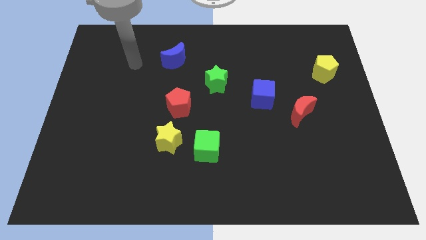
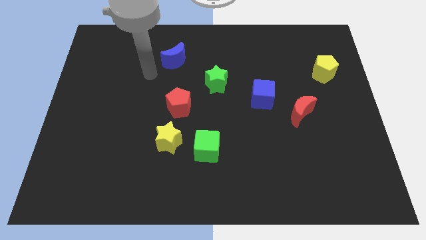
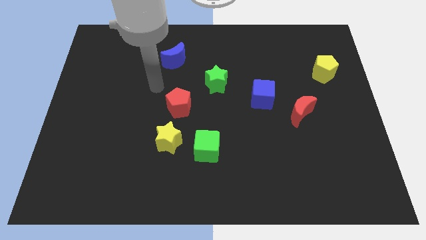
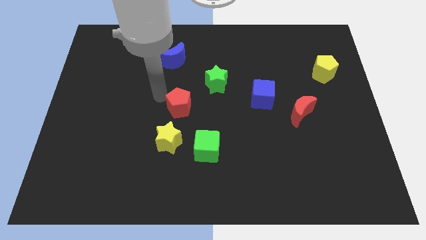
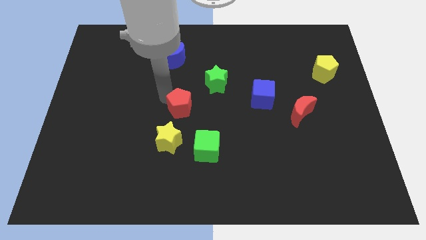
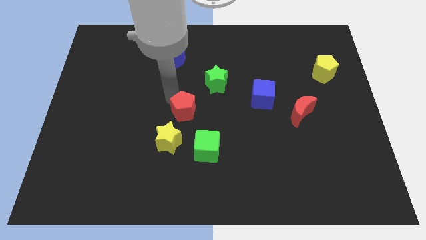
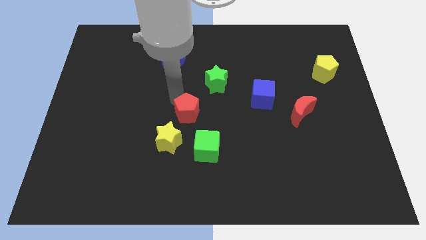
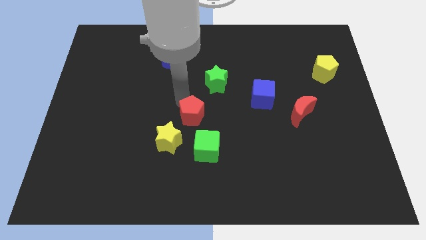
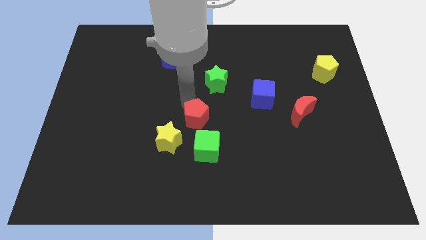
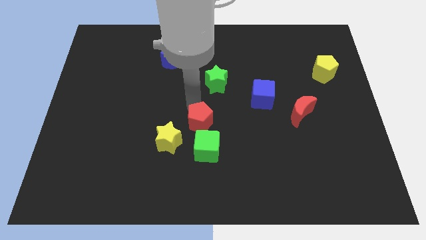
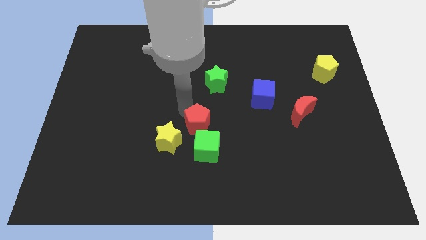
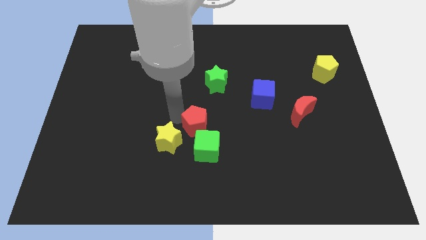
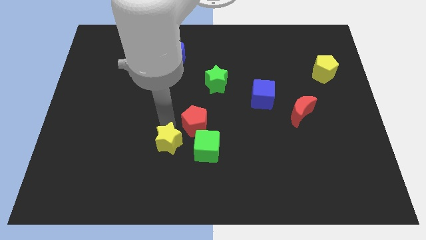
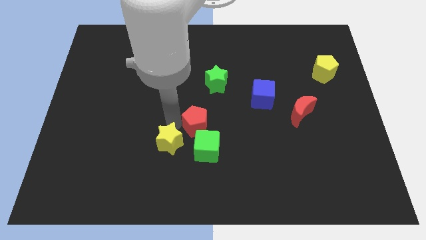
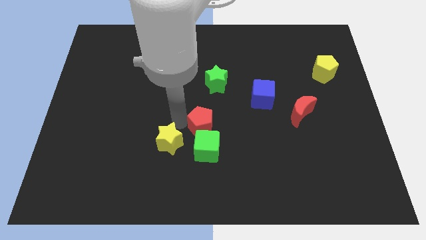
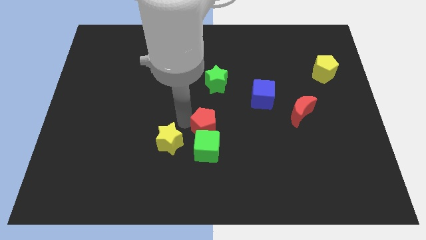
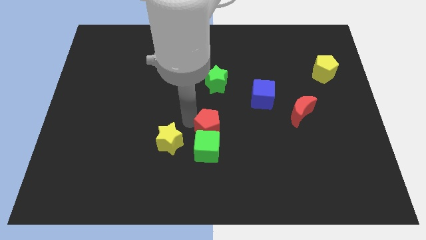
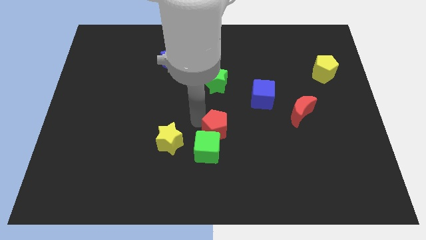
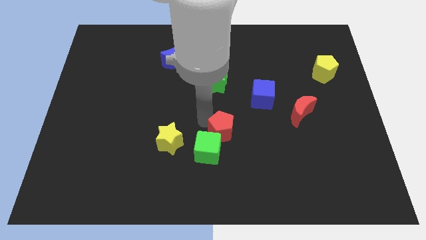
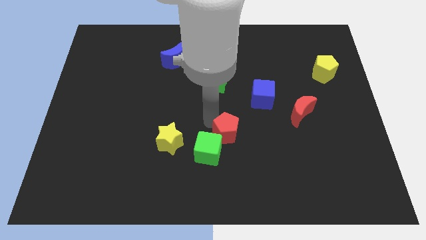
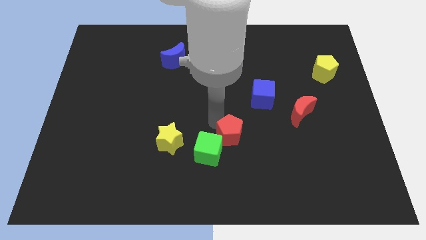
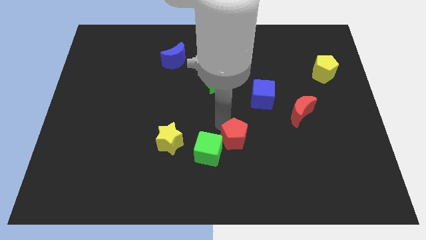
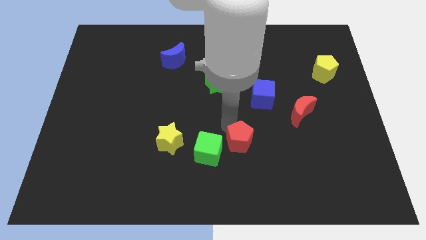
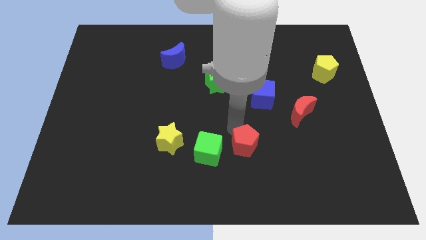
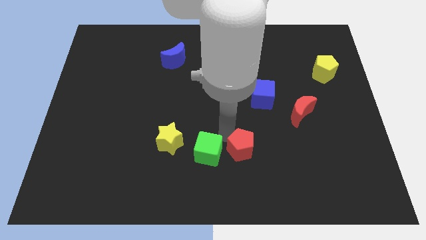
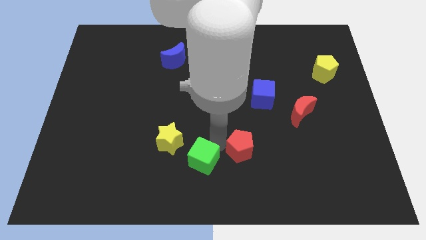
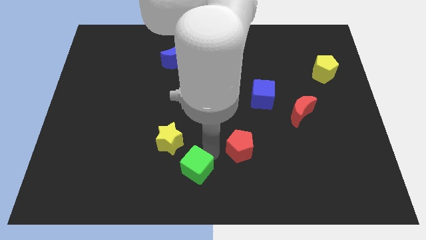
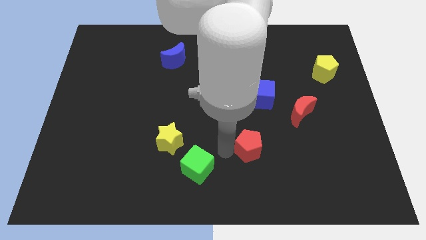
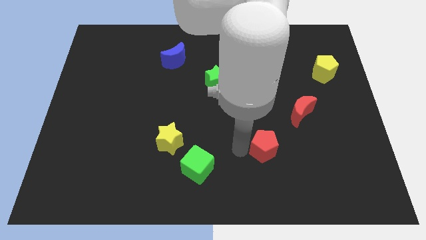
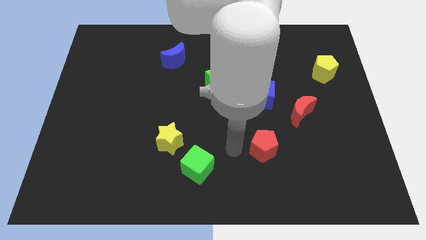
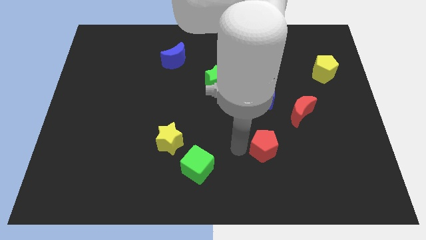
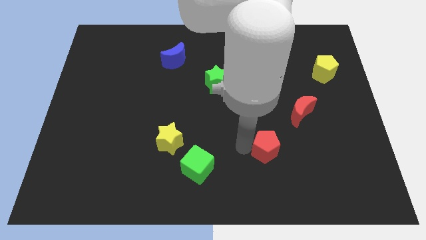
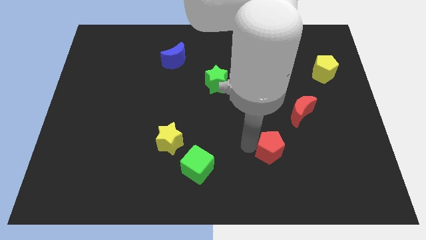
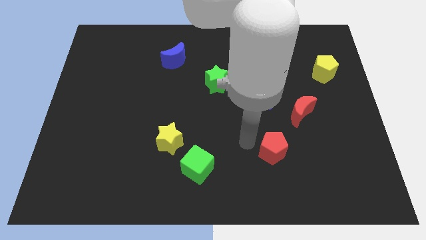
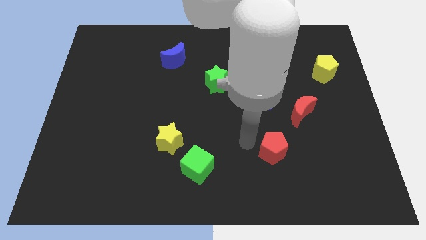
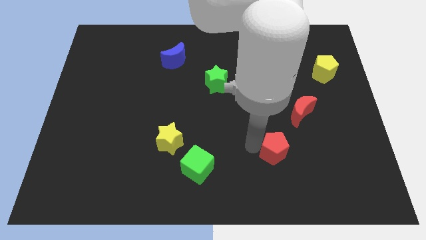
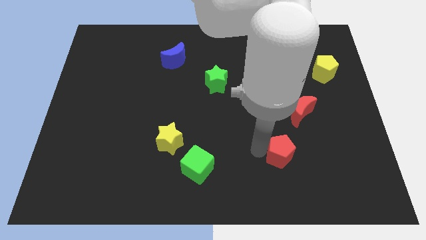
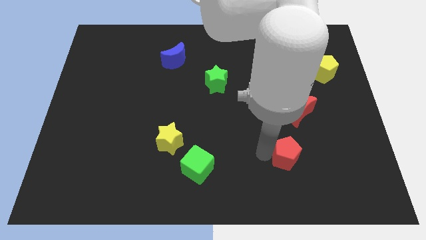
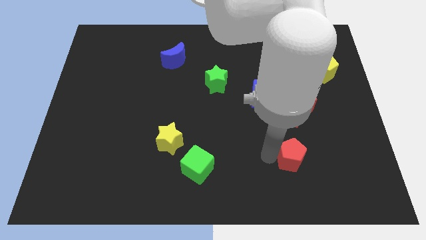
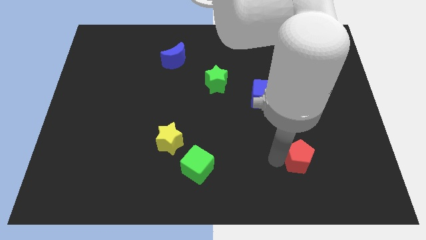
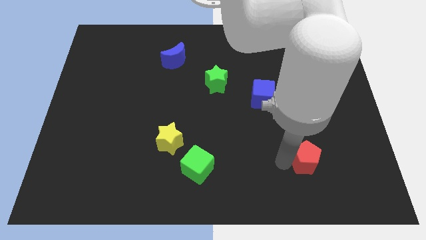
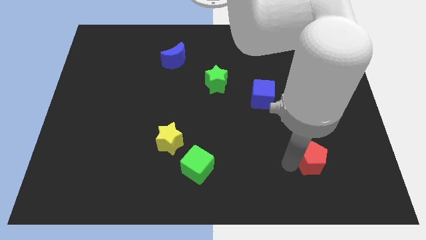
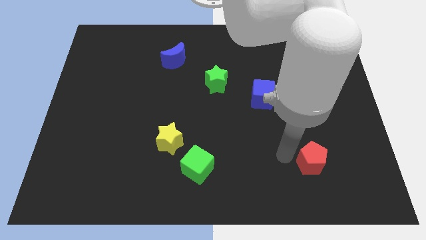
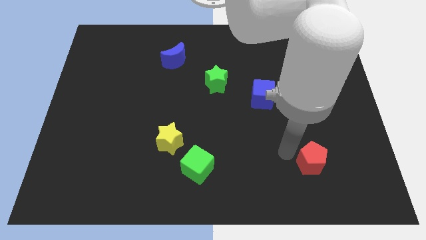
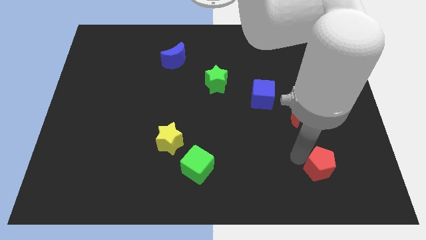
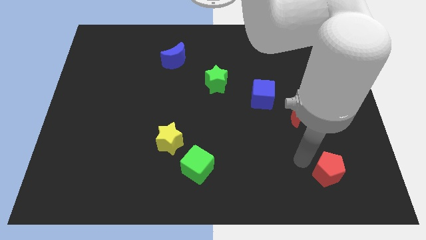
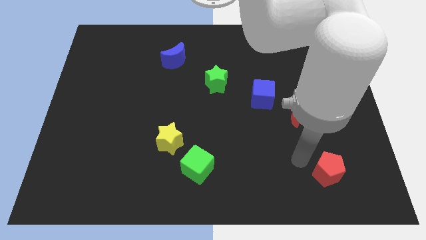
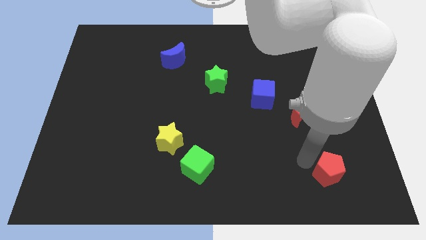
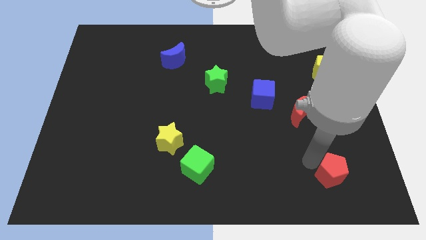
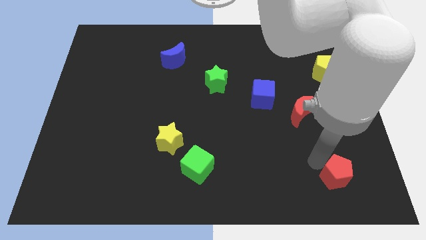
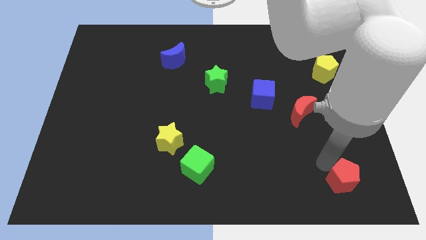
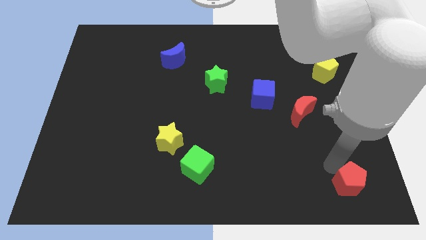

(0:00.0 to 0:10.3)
put the red pentagon to the bottom right corner
